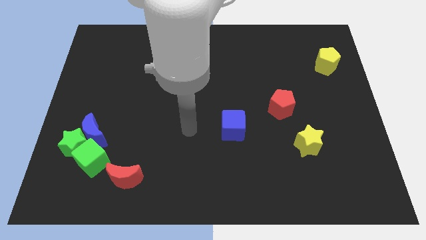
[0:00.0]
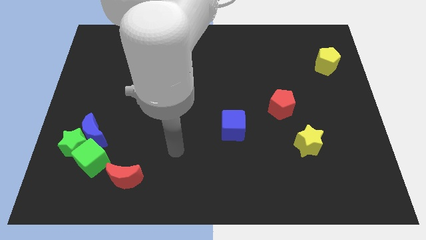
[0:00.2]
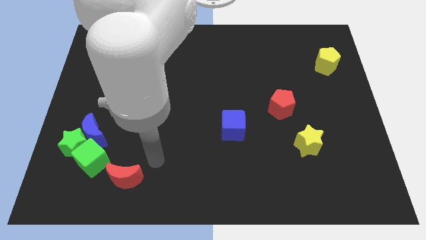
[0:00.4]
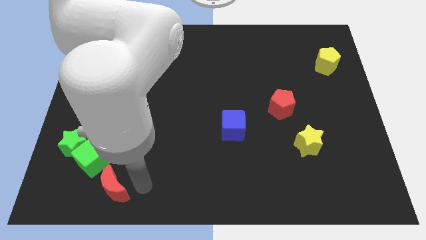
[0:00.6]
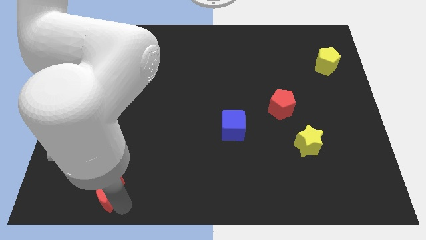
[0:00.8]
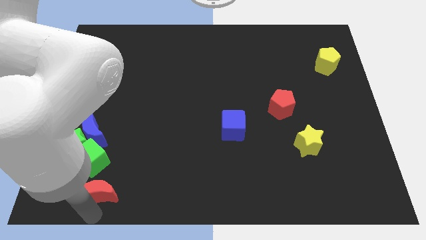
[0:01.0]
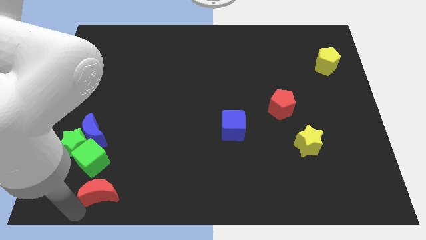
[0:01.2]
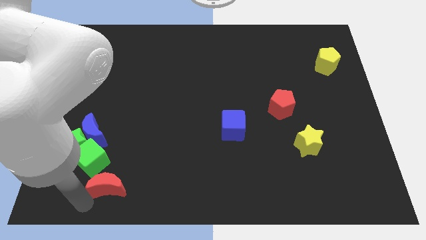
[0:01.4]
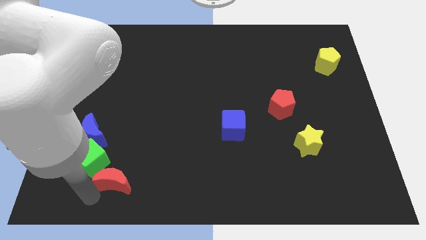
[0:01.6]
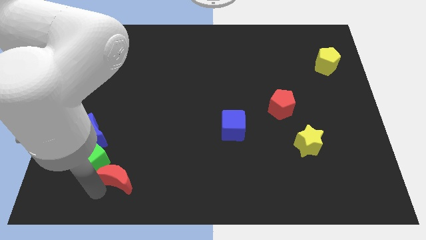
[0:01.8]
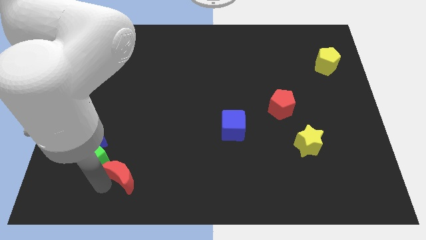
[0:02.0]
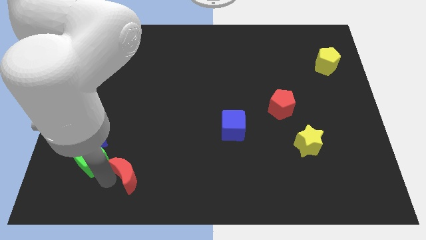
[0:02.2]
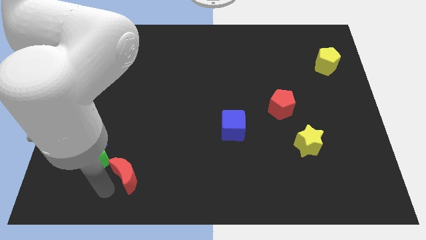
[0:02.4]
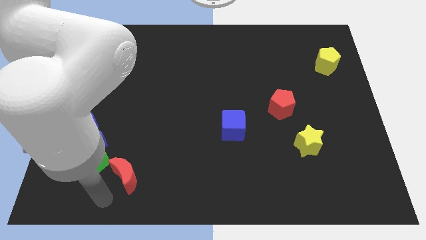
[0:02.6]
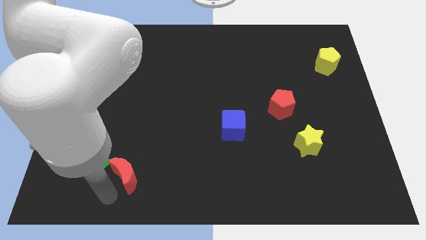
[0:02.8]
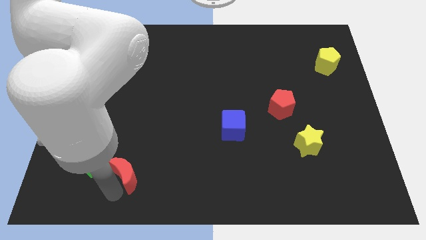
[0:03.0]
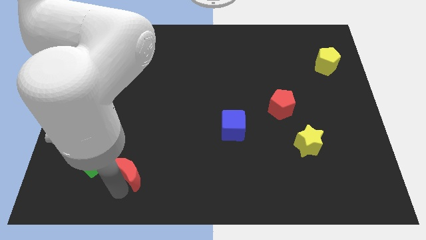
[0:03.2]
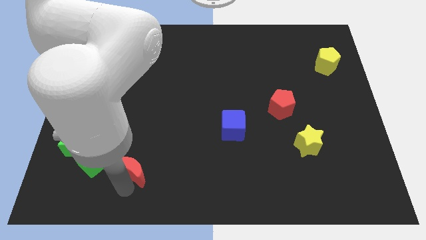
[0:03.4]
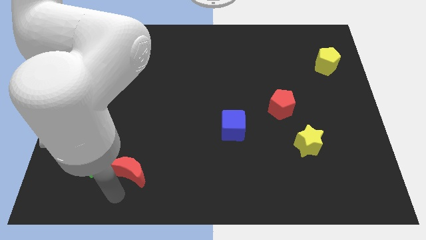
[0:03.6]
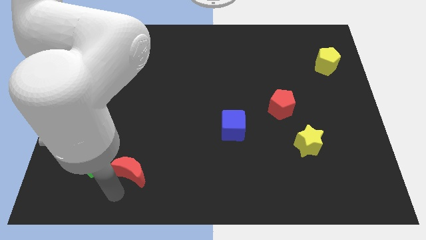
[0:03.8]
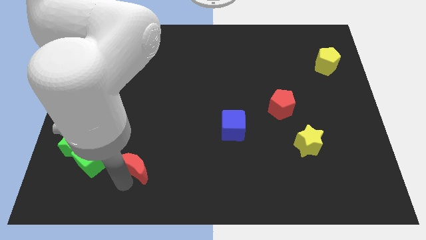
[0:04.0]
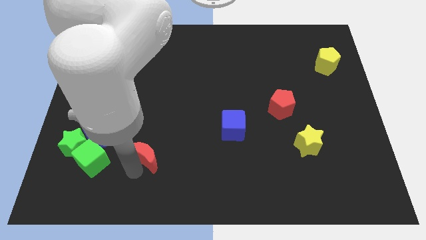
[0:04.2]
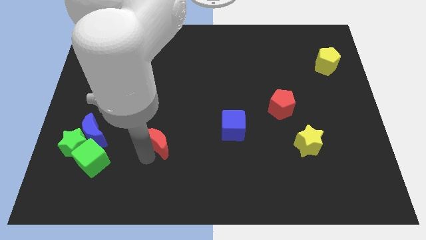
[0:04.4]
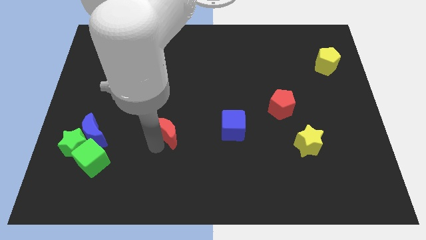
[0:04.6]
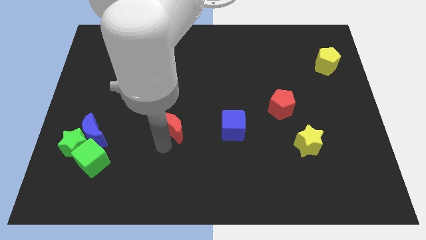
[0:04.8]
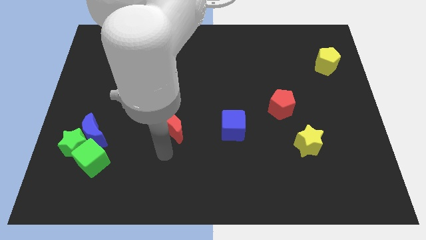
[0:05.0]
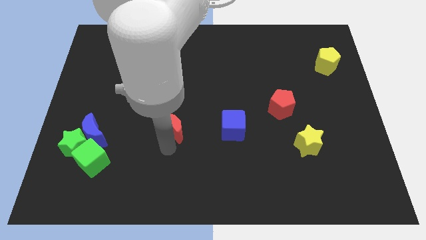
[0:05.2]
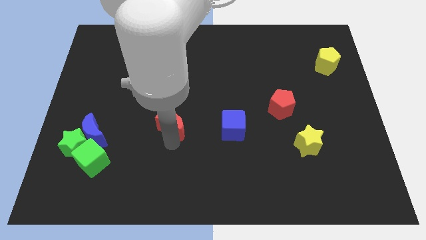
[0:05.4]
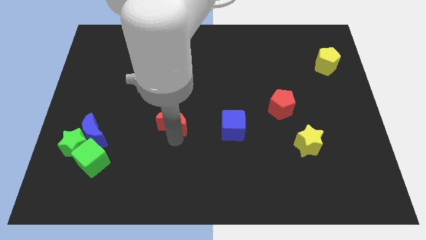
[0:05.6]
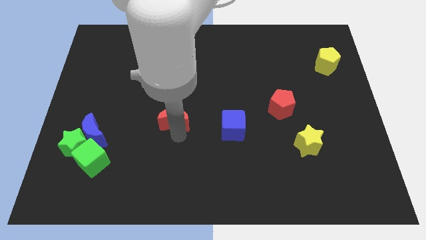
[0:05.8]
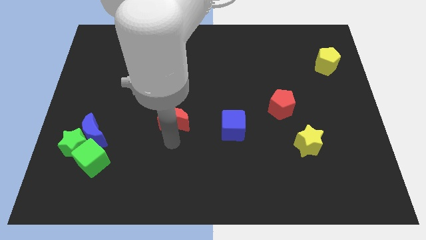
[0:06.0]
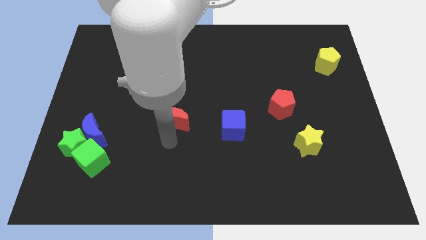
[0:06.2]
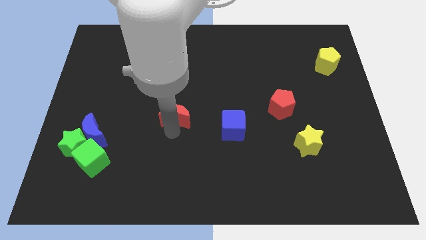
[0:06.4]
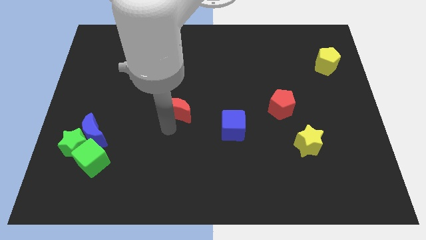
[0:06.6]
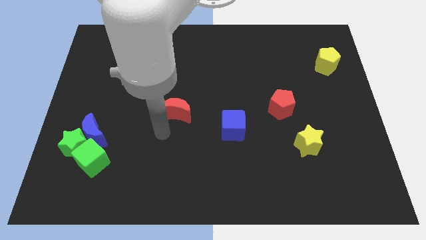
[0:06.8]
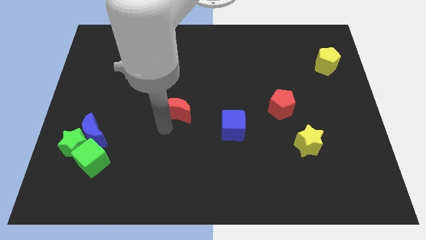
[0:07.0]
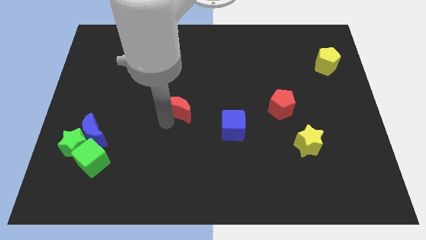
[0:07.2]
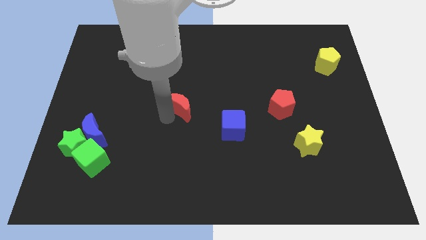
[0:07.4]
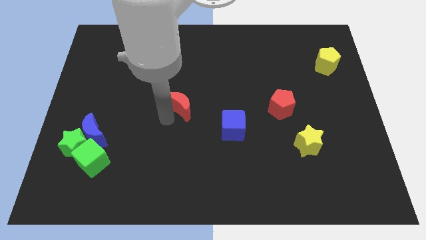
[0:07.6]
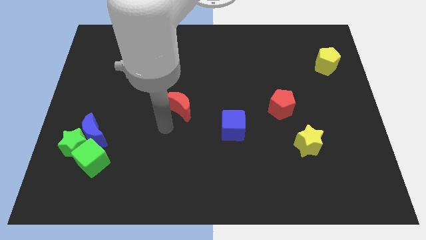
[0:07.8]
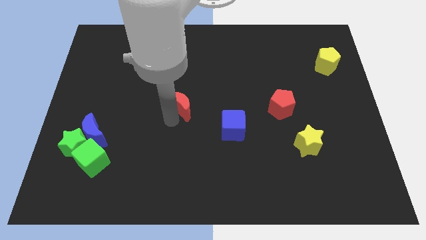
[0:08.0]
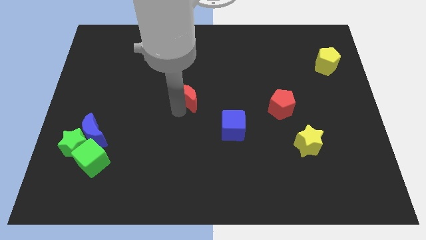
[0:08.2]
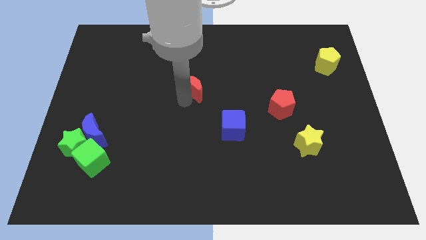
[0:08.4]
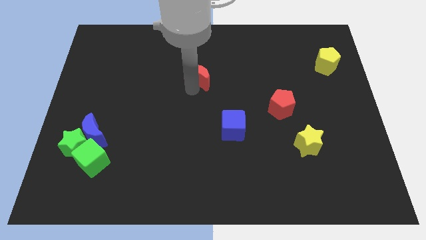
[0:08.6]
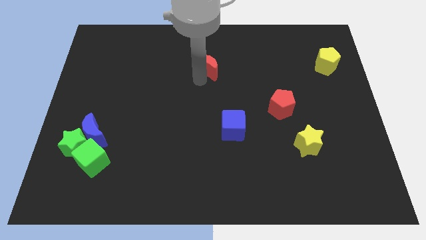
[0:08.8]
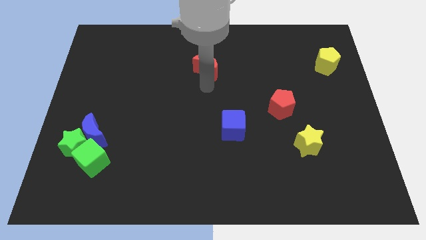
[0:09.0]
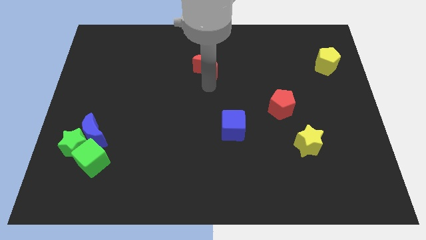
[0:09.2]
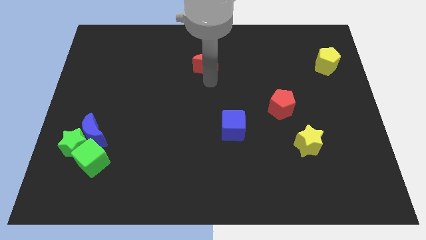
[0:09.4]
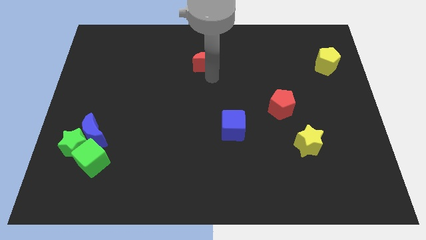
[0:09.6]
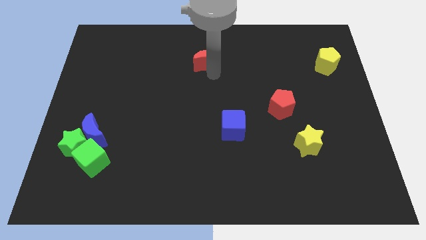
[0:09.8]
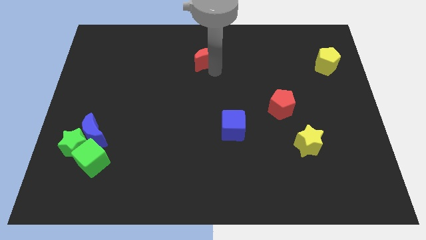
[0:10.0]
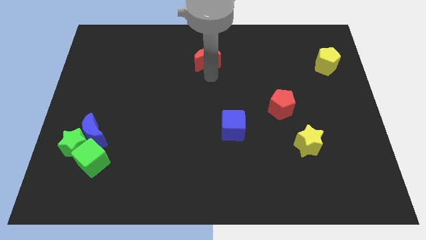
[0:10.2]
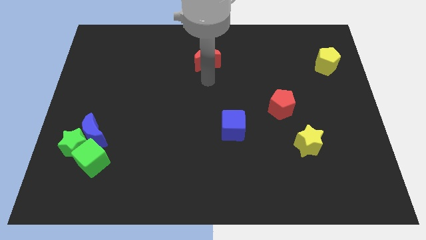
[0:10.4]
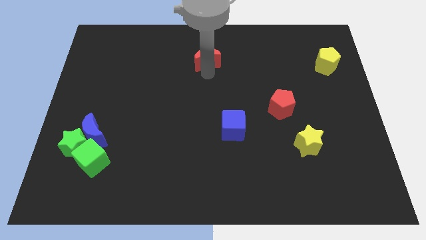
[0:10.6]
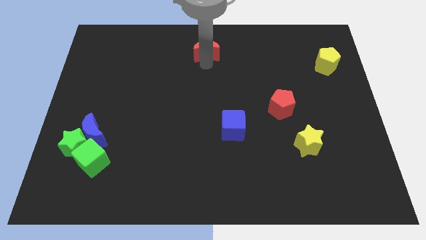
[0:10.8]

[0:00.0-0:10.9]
move the red moon to the top
